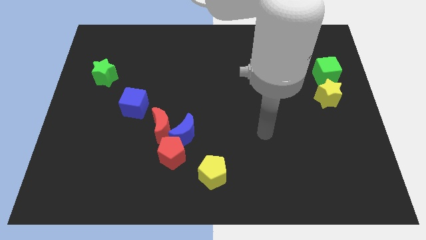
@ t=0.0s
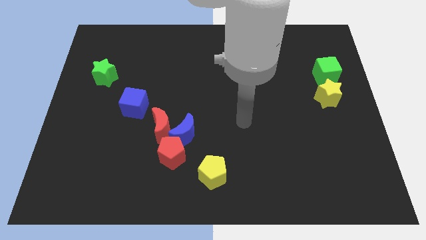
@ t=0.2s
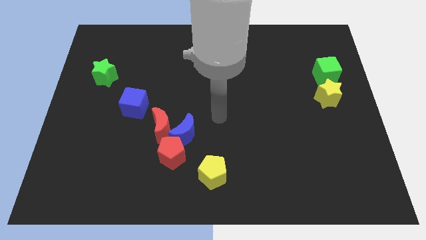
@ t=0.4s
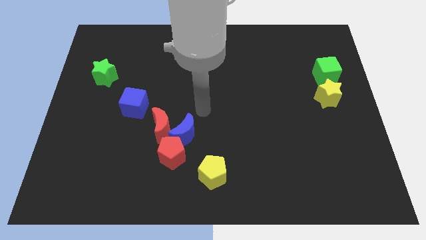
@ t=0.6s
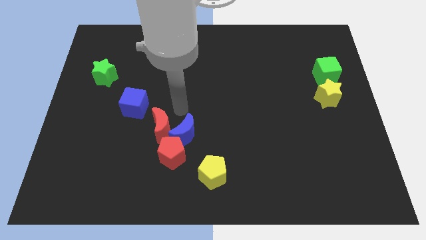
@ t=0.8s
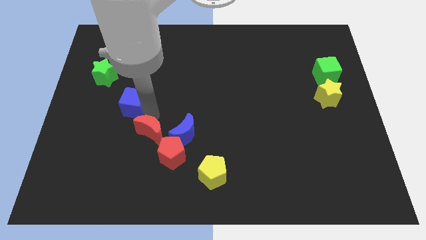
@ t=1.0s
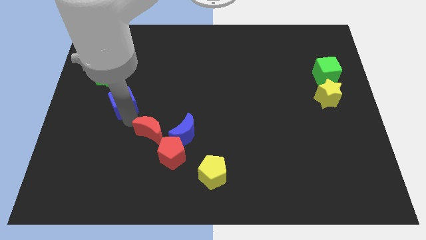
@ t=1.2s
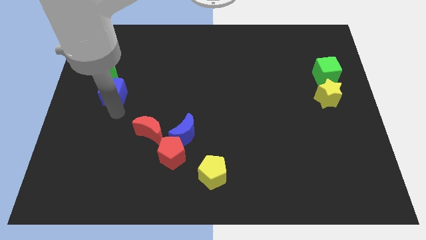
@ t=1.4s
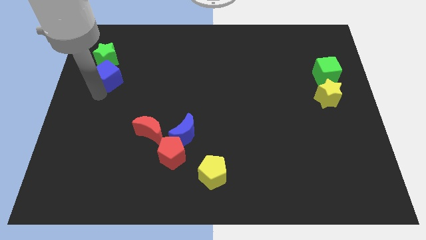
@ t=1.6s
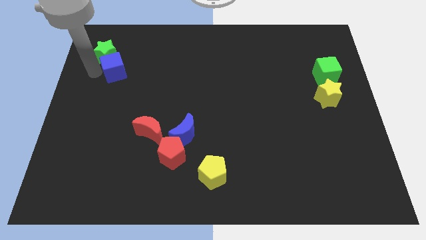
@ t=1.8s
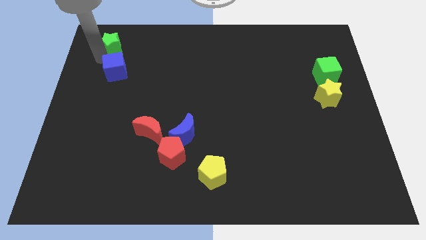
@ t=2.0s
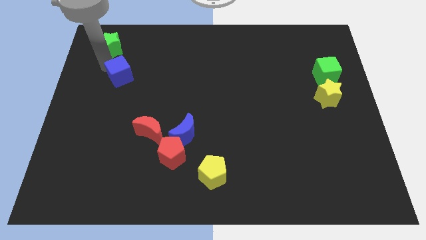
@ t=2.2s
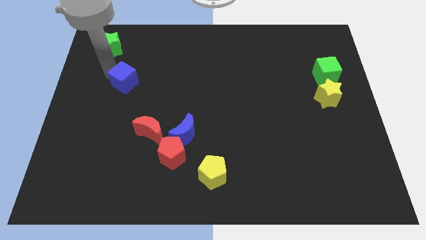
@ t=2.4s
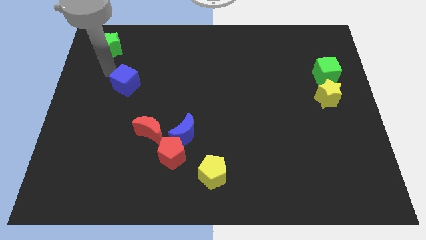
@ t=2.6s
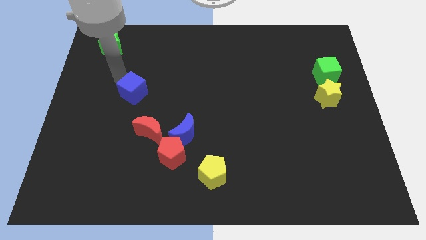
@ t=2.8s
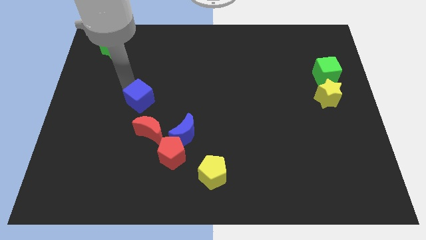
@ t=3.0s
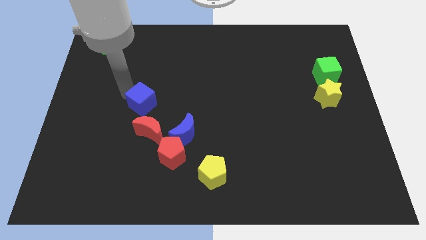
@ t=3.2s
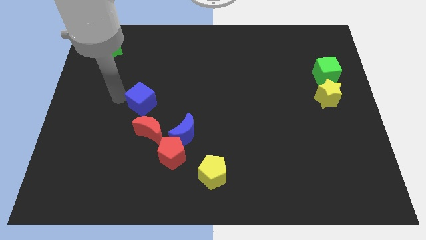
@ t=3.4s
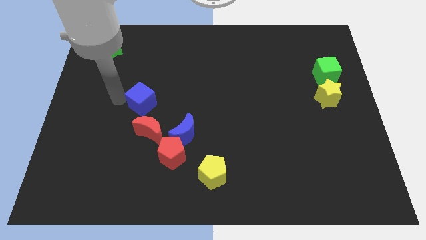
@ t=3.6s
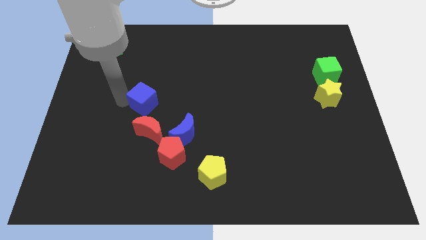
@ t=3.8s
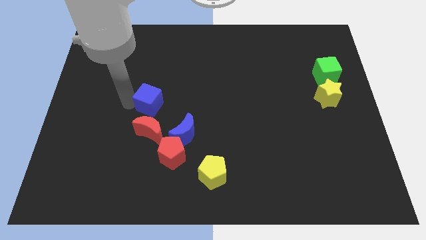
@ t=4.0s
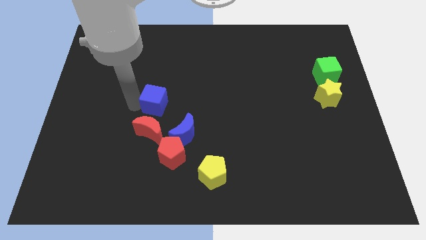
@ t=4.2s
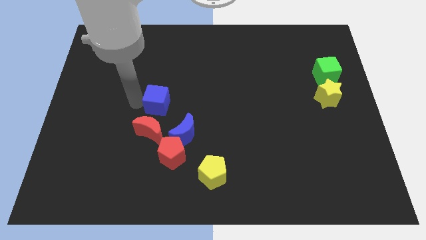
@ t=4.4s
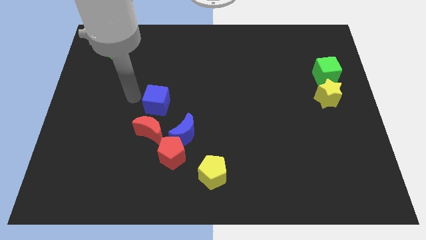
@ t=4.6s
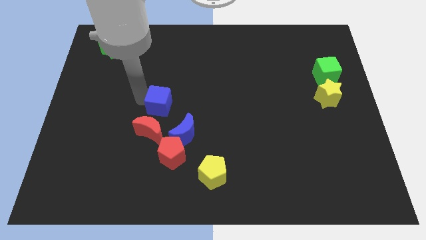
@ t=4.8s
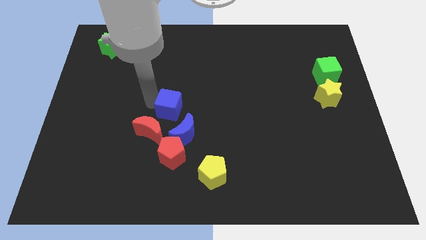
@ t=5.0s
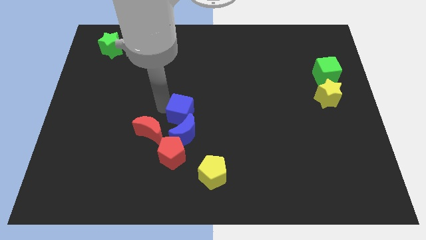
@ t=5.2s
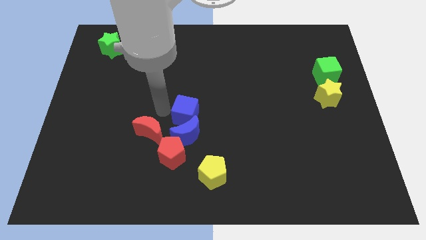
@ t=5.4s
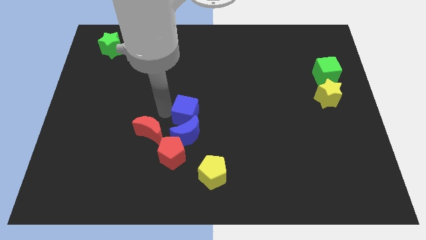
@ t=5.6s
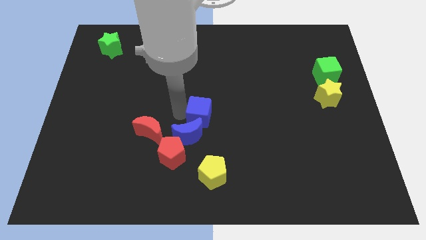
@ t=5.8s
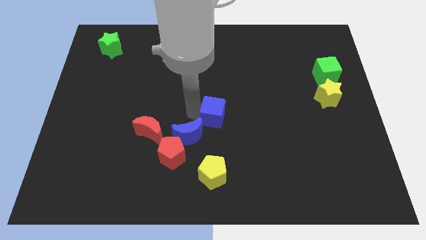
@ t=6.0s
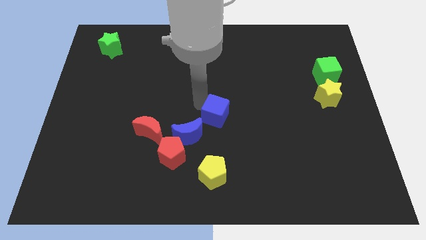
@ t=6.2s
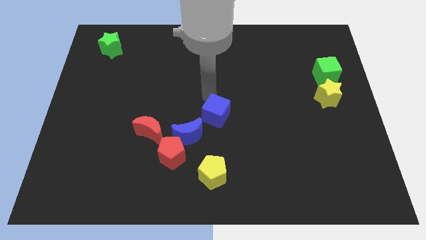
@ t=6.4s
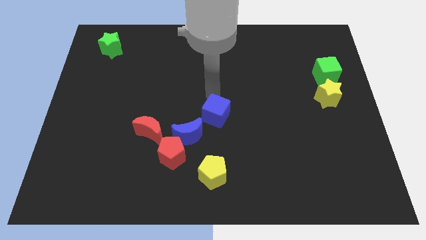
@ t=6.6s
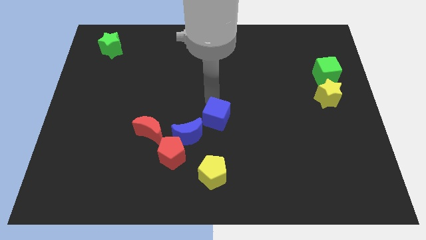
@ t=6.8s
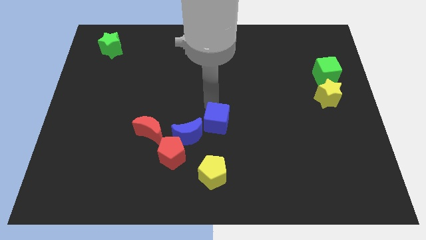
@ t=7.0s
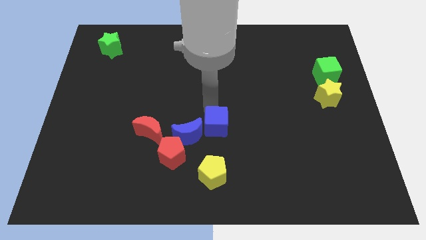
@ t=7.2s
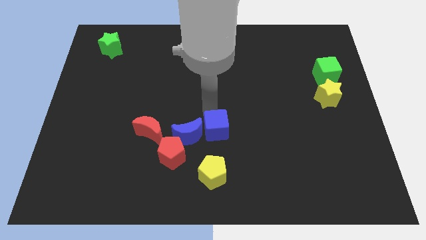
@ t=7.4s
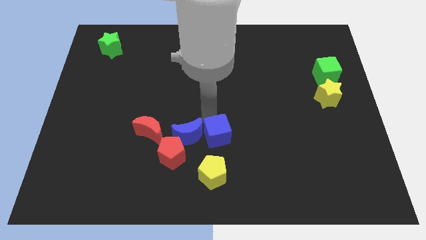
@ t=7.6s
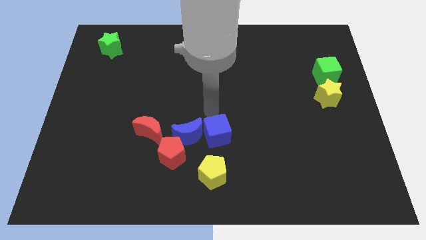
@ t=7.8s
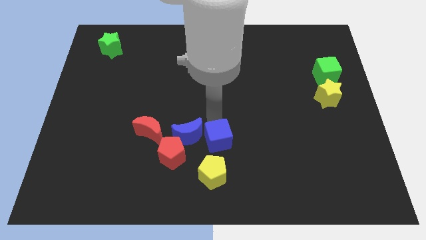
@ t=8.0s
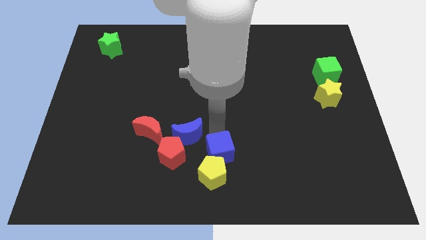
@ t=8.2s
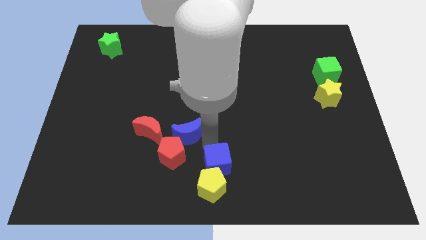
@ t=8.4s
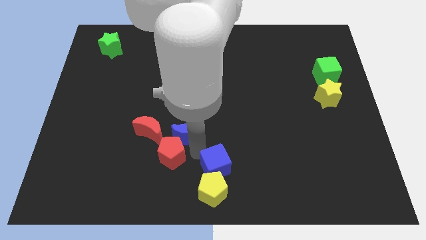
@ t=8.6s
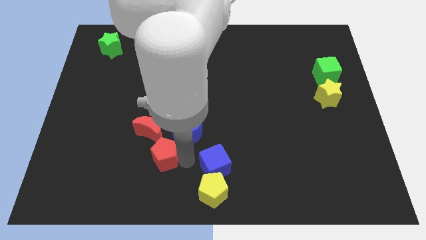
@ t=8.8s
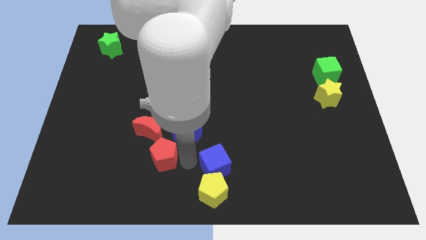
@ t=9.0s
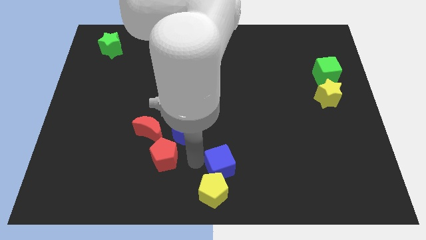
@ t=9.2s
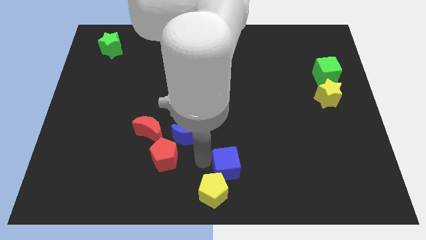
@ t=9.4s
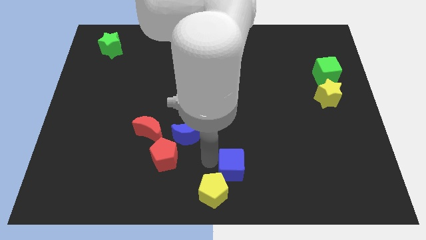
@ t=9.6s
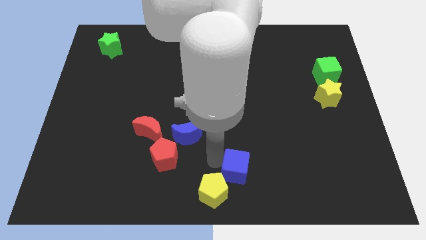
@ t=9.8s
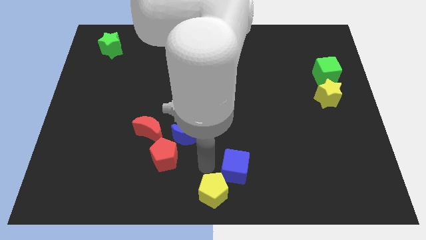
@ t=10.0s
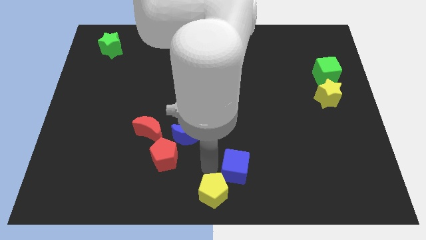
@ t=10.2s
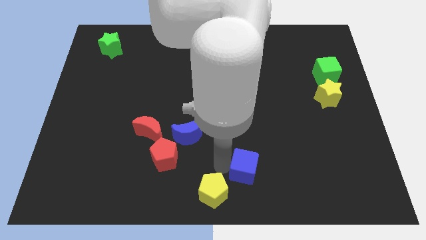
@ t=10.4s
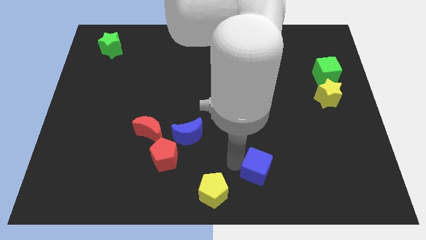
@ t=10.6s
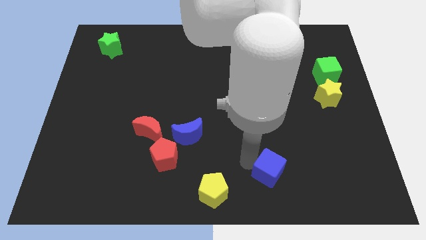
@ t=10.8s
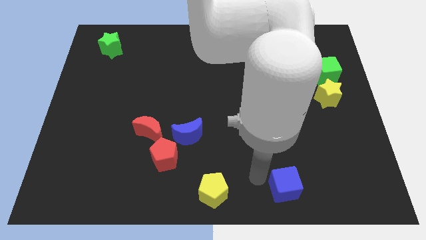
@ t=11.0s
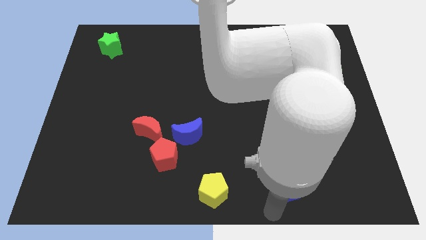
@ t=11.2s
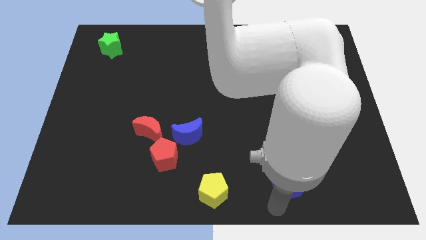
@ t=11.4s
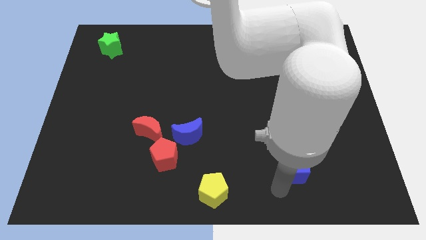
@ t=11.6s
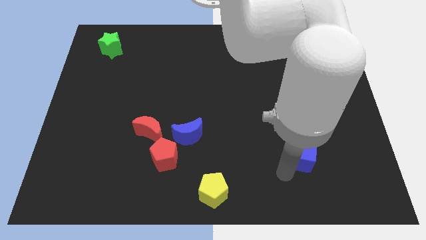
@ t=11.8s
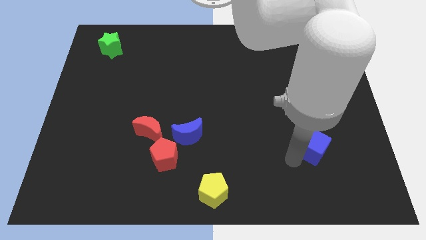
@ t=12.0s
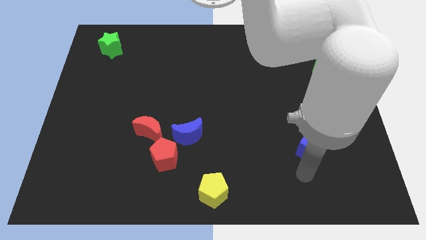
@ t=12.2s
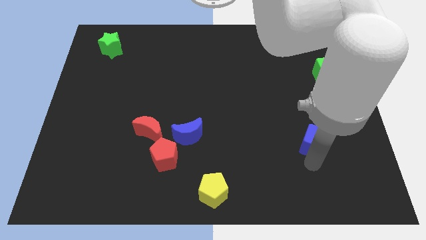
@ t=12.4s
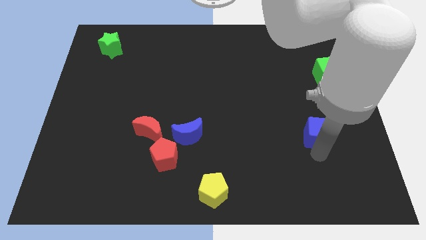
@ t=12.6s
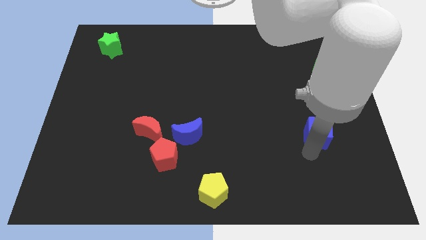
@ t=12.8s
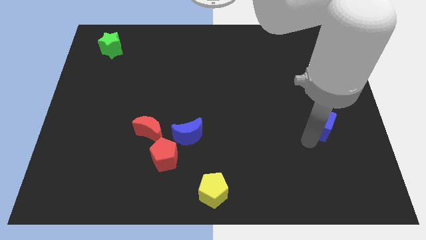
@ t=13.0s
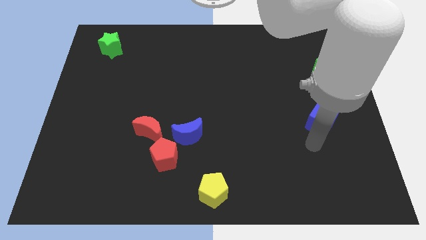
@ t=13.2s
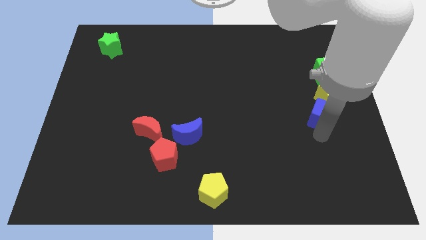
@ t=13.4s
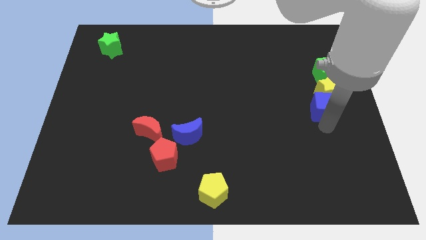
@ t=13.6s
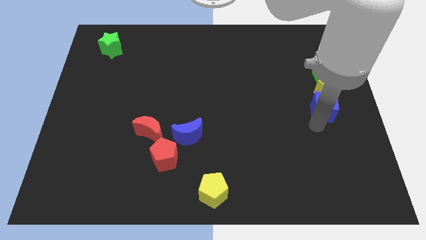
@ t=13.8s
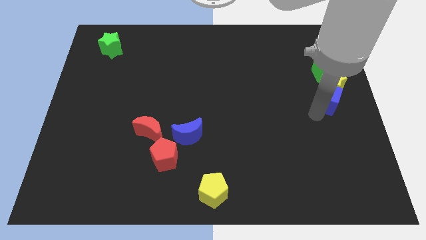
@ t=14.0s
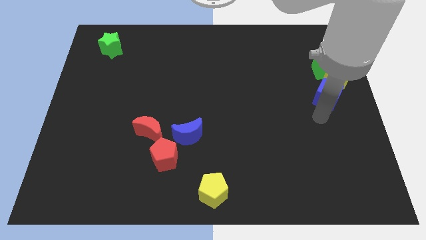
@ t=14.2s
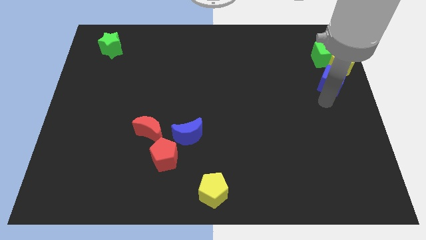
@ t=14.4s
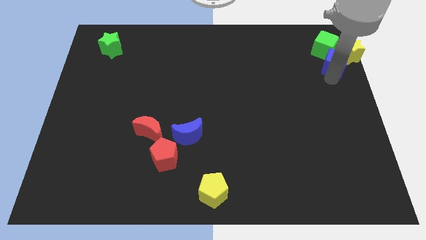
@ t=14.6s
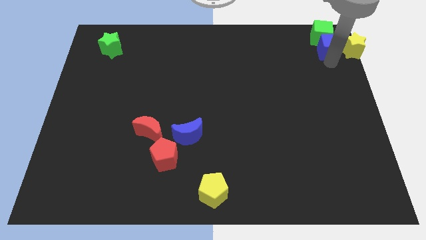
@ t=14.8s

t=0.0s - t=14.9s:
put the blue cube to the upper right corner
